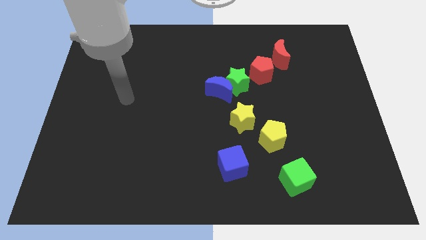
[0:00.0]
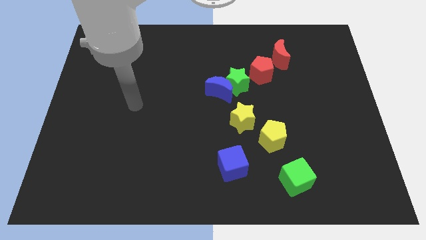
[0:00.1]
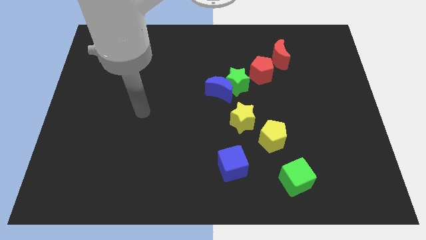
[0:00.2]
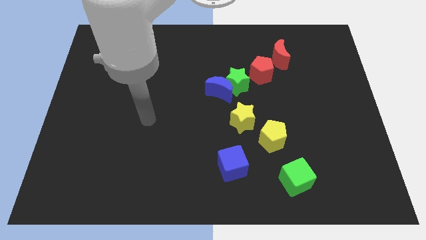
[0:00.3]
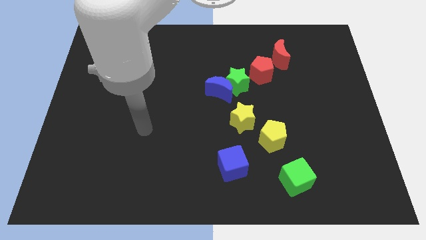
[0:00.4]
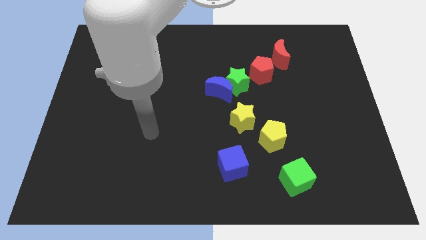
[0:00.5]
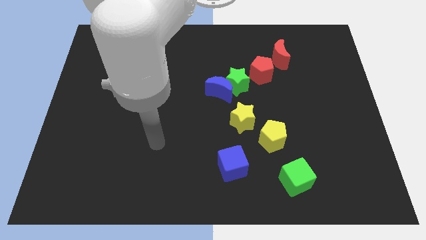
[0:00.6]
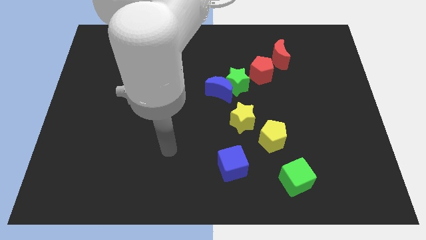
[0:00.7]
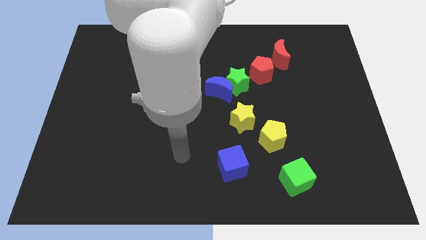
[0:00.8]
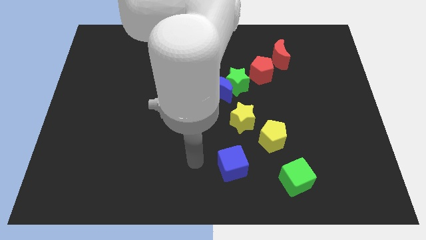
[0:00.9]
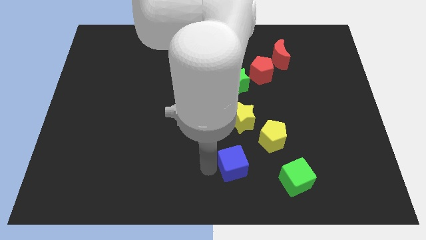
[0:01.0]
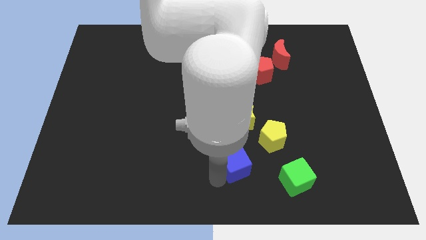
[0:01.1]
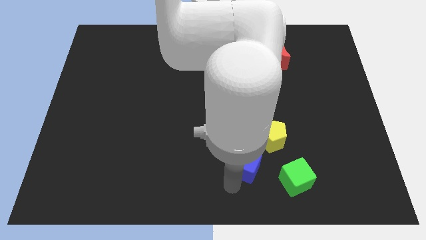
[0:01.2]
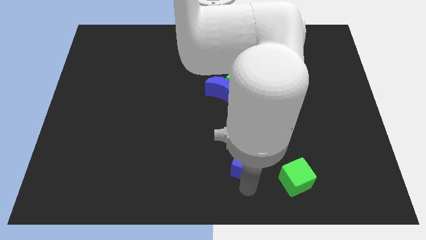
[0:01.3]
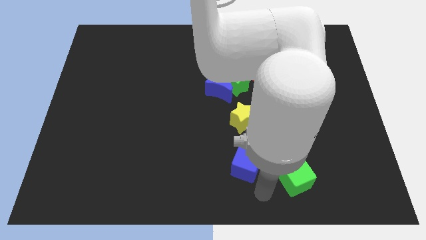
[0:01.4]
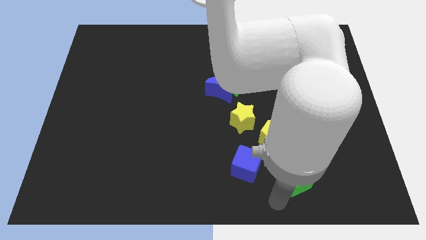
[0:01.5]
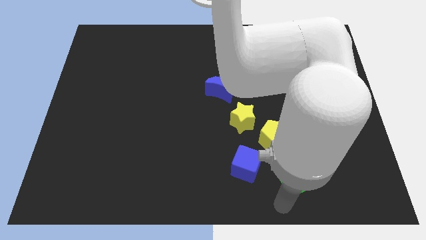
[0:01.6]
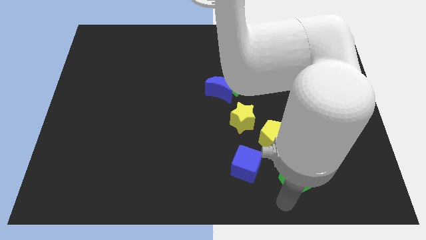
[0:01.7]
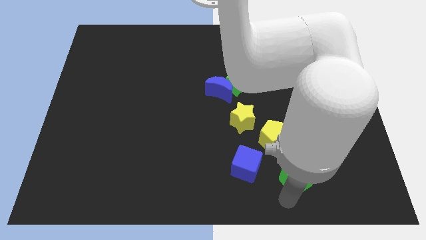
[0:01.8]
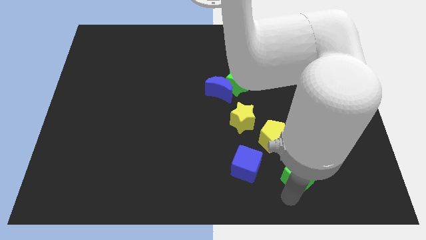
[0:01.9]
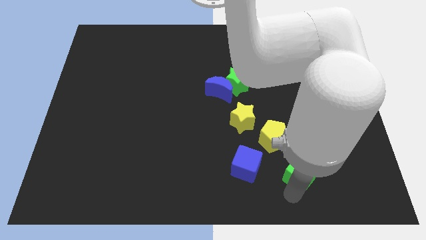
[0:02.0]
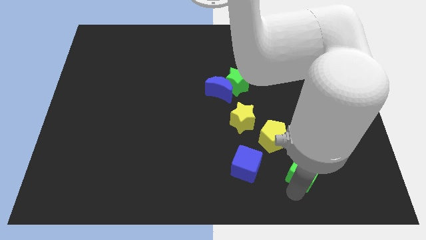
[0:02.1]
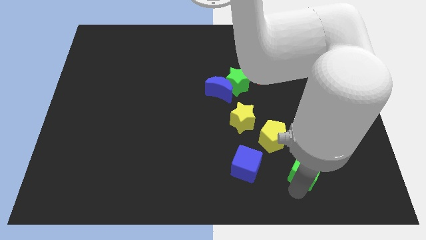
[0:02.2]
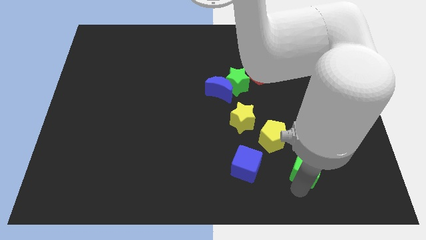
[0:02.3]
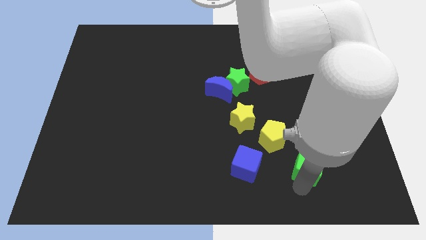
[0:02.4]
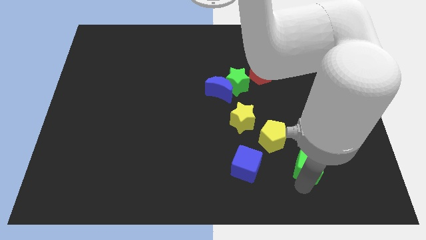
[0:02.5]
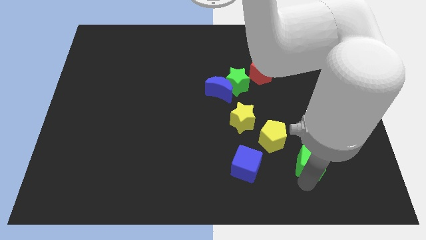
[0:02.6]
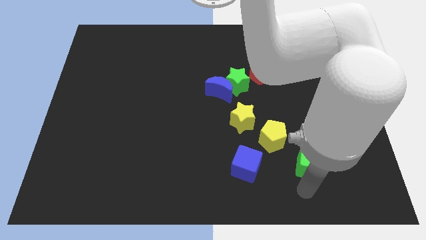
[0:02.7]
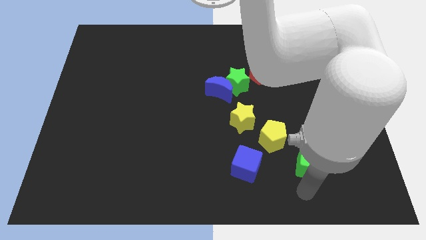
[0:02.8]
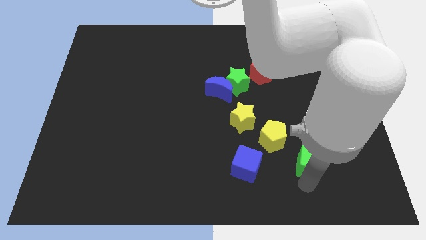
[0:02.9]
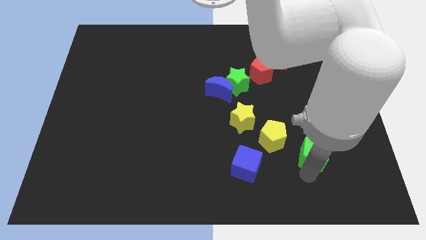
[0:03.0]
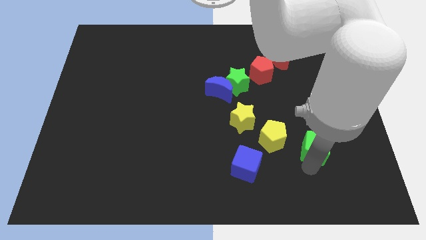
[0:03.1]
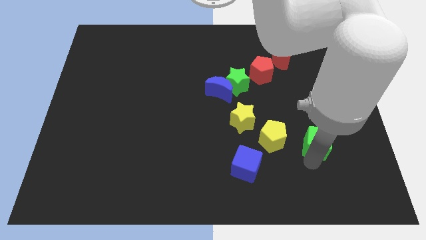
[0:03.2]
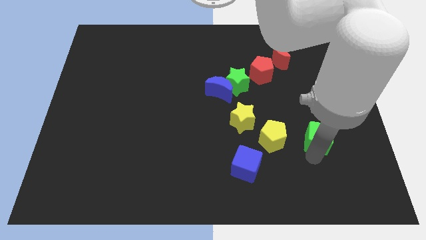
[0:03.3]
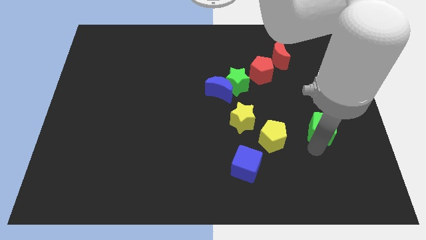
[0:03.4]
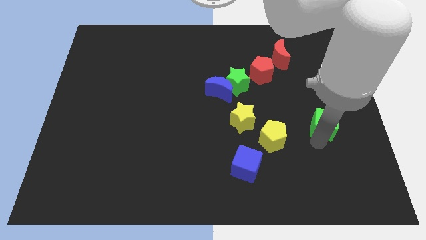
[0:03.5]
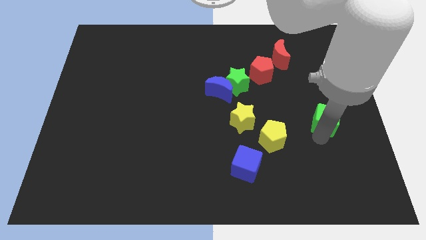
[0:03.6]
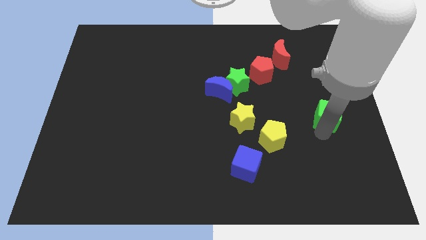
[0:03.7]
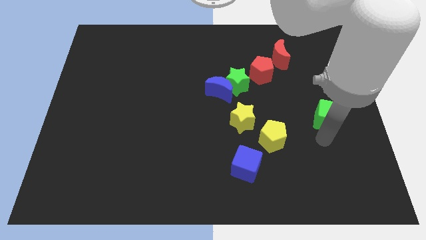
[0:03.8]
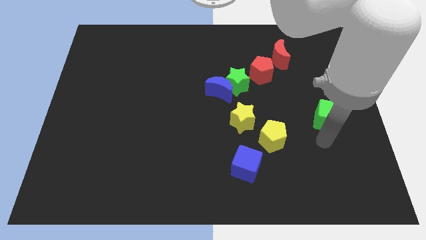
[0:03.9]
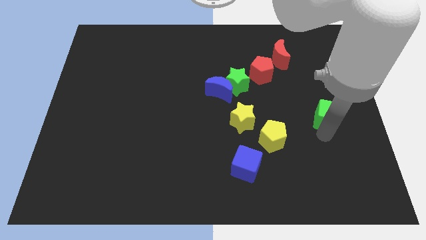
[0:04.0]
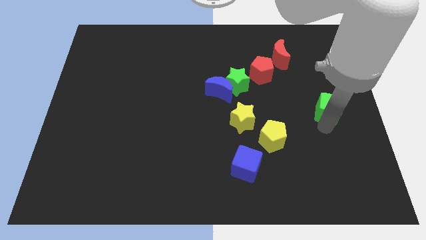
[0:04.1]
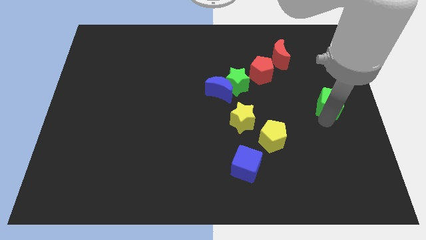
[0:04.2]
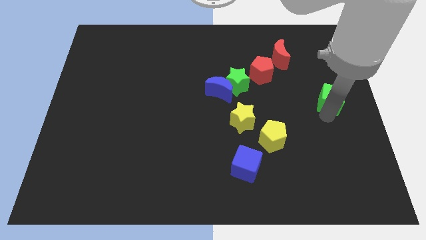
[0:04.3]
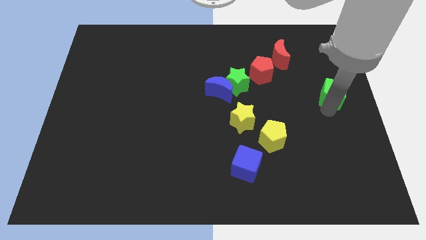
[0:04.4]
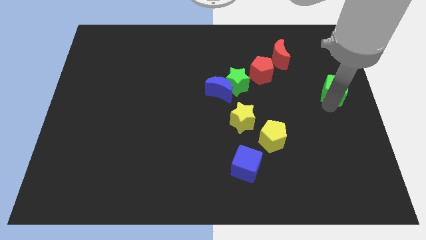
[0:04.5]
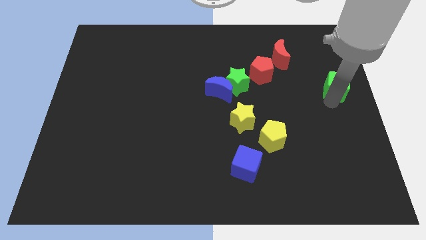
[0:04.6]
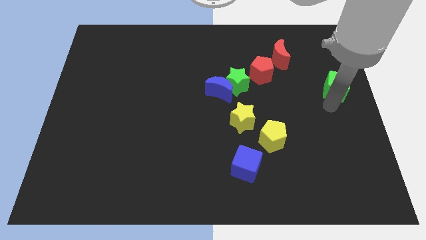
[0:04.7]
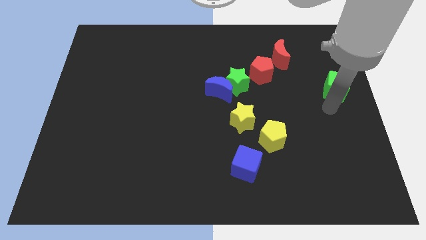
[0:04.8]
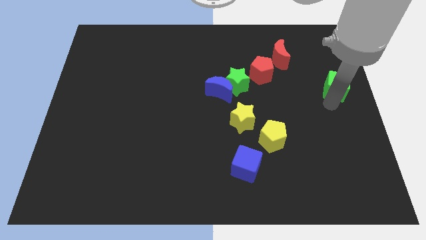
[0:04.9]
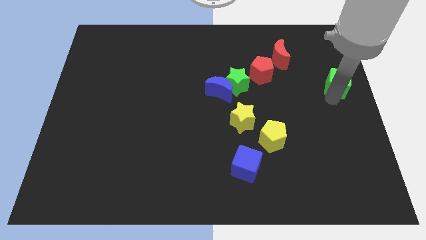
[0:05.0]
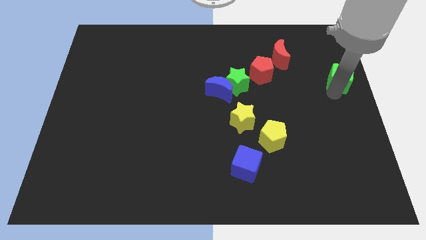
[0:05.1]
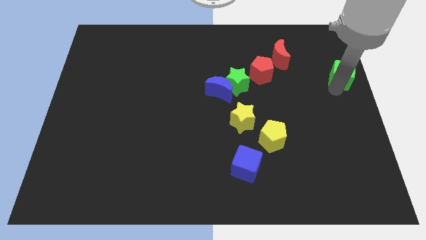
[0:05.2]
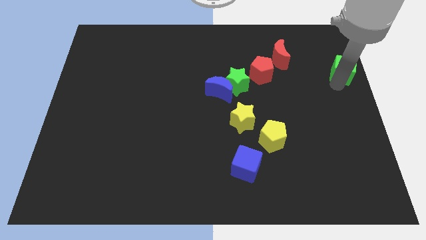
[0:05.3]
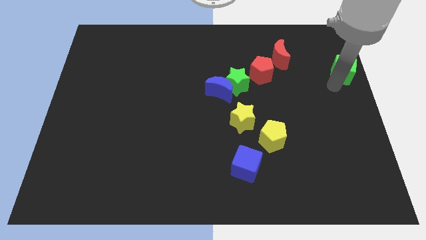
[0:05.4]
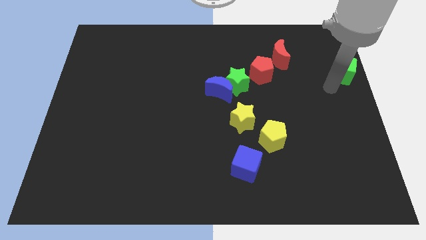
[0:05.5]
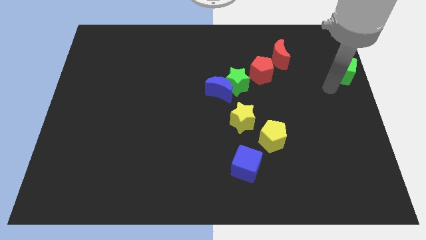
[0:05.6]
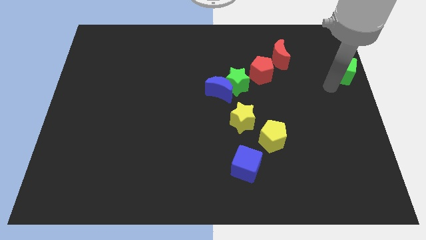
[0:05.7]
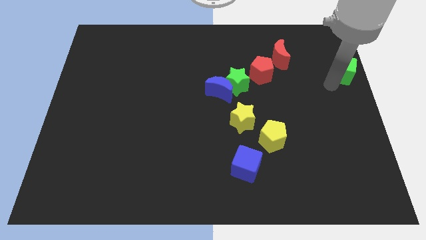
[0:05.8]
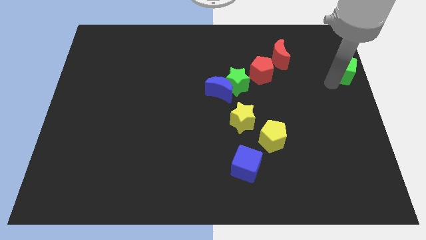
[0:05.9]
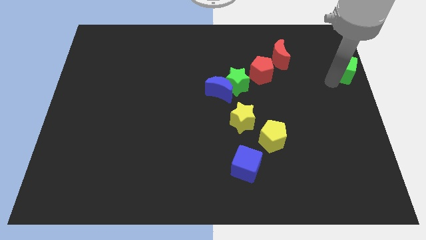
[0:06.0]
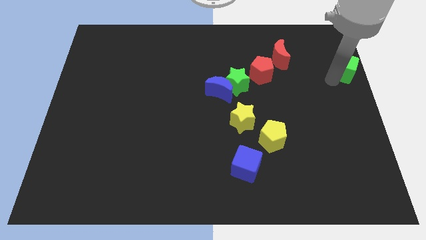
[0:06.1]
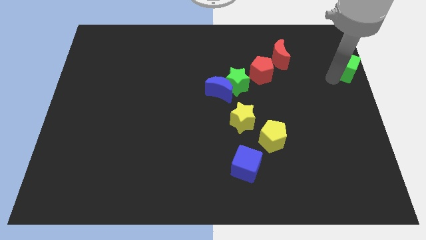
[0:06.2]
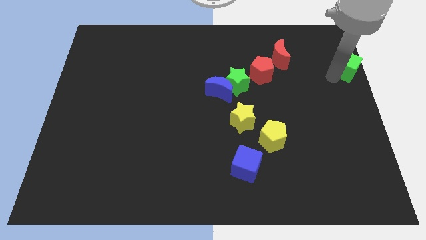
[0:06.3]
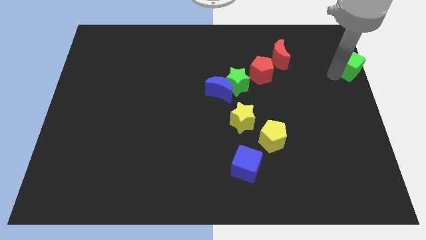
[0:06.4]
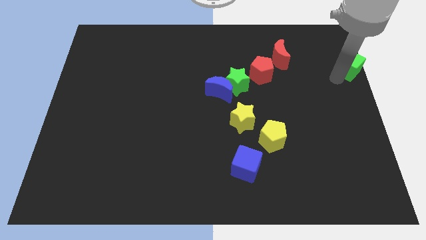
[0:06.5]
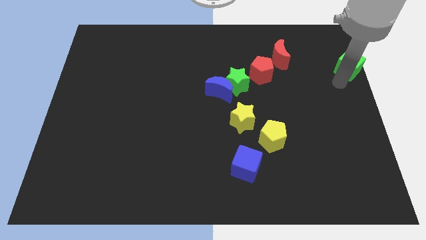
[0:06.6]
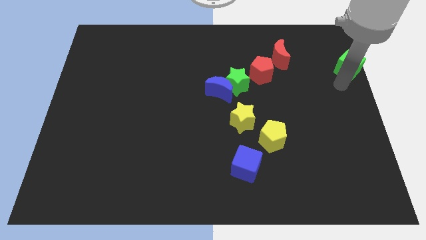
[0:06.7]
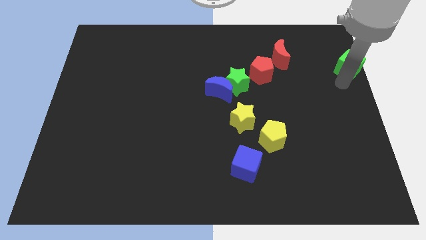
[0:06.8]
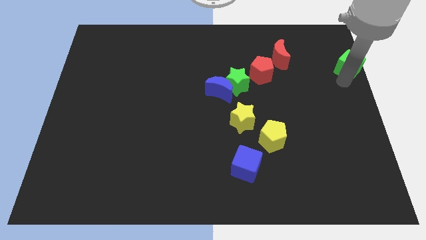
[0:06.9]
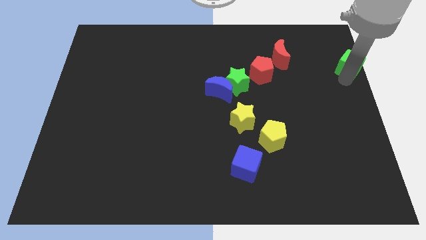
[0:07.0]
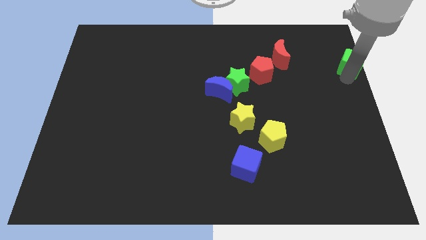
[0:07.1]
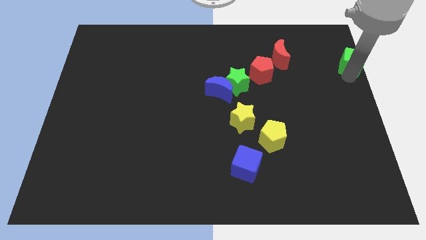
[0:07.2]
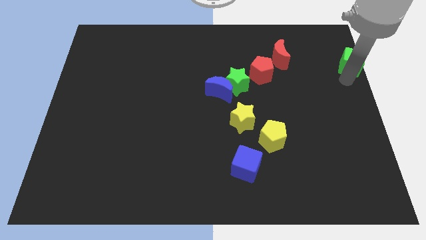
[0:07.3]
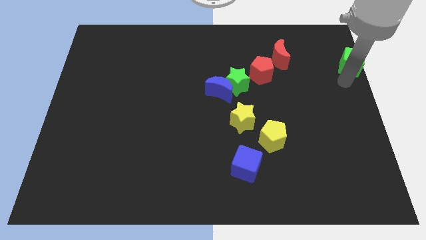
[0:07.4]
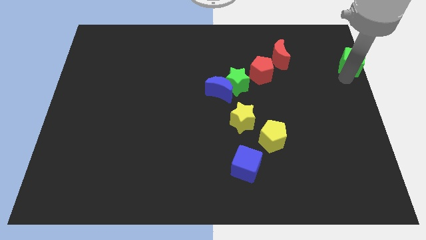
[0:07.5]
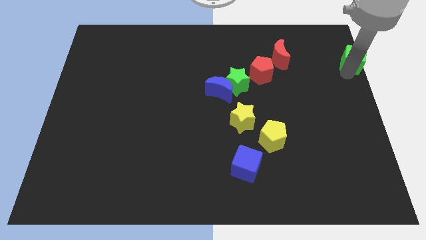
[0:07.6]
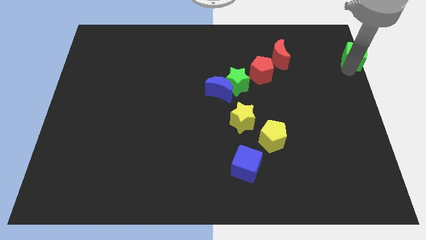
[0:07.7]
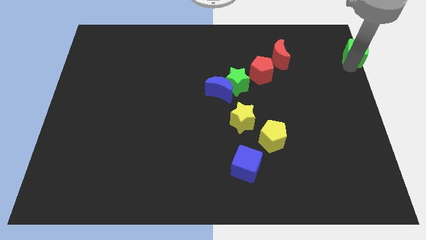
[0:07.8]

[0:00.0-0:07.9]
put the green cube to the upper right corner
